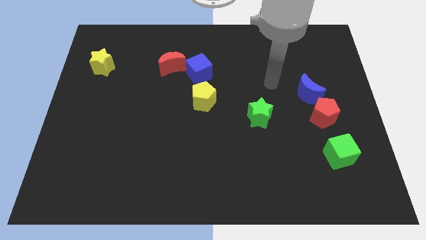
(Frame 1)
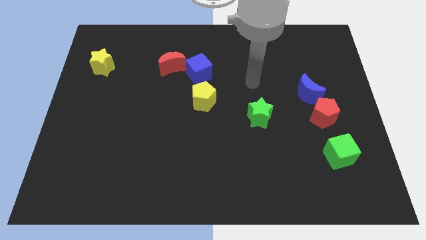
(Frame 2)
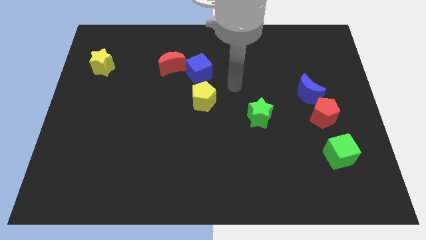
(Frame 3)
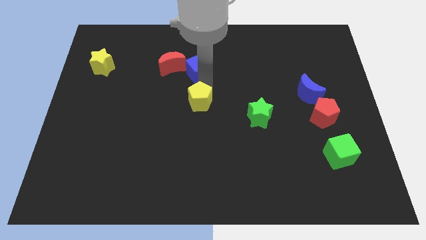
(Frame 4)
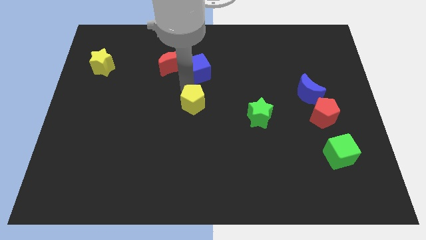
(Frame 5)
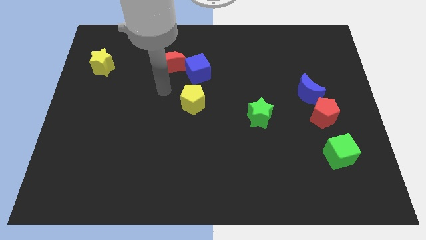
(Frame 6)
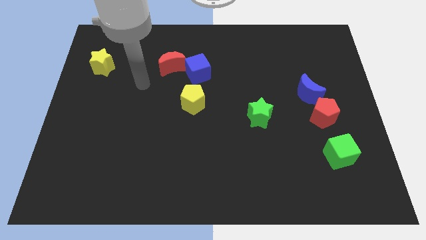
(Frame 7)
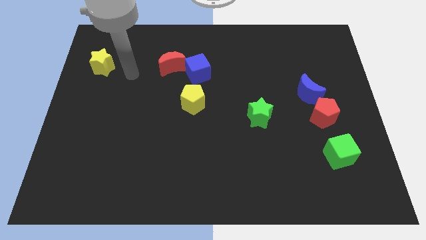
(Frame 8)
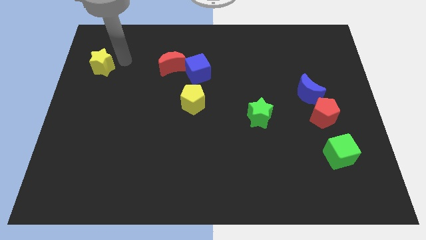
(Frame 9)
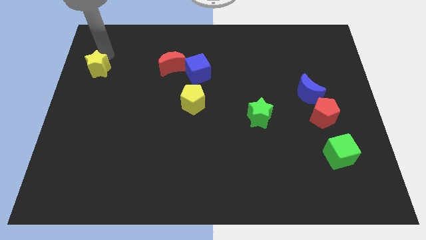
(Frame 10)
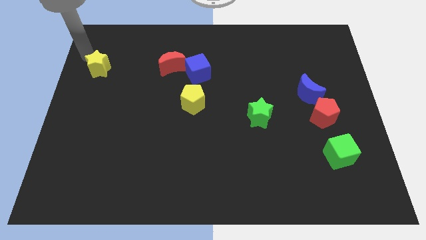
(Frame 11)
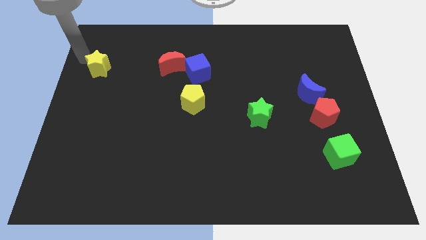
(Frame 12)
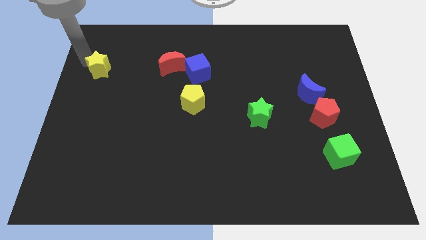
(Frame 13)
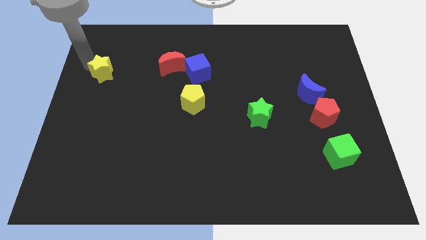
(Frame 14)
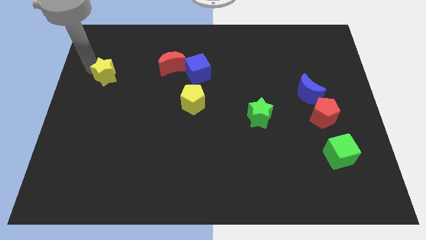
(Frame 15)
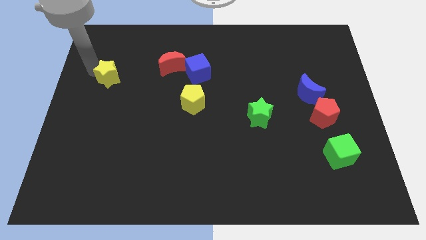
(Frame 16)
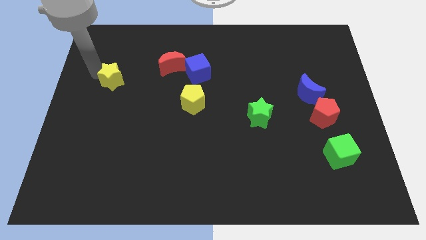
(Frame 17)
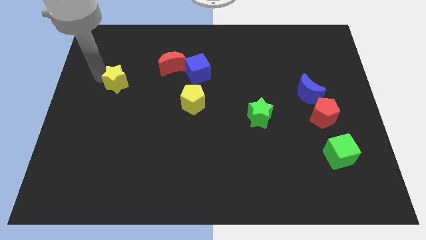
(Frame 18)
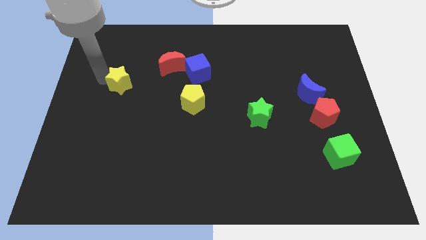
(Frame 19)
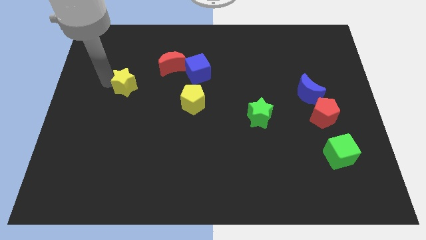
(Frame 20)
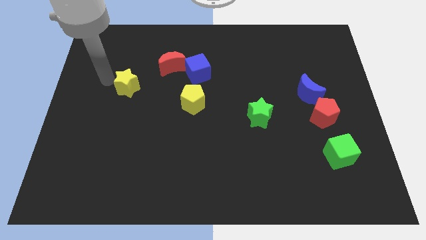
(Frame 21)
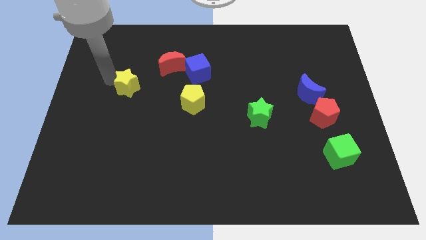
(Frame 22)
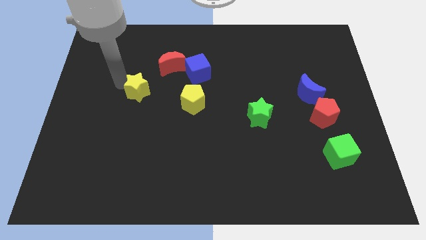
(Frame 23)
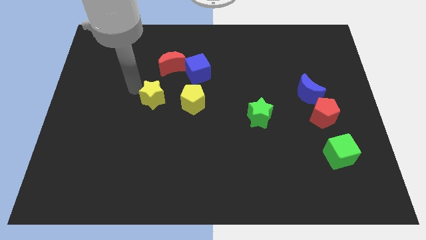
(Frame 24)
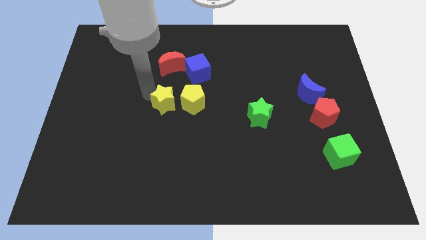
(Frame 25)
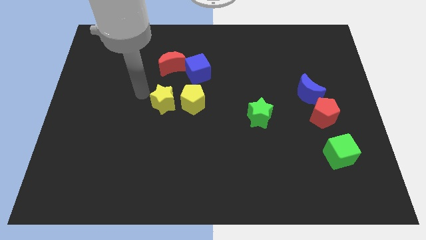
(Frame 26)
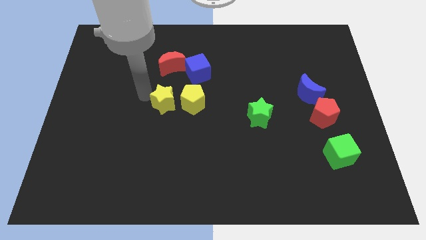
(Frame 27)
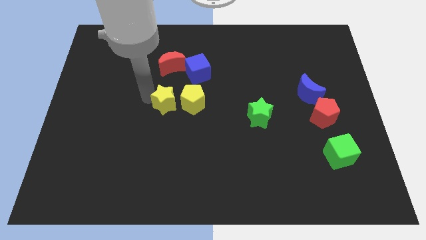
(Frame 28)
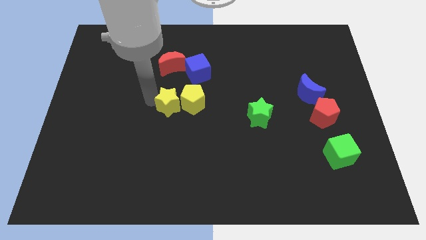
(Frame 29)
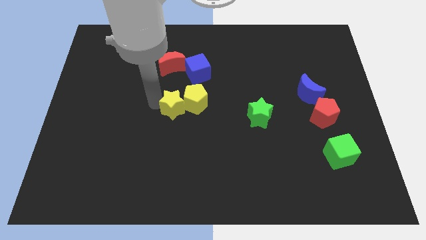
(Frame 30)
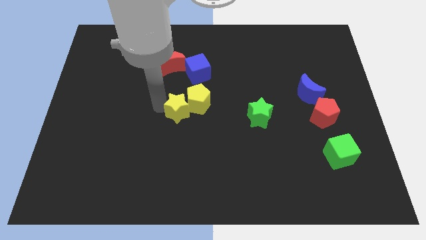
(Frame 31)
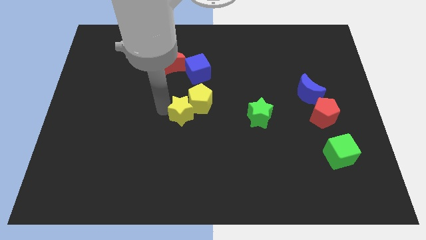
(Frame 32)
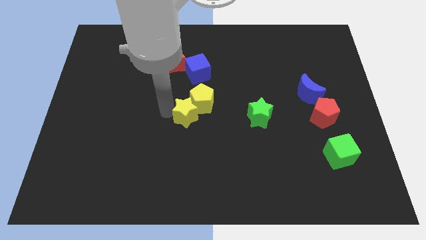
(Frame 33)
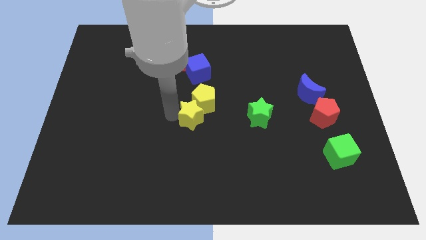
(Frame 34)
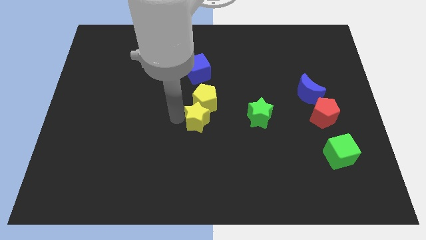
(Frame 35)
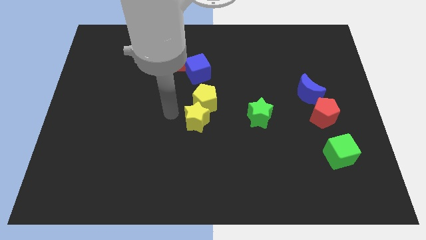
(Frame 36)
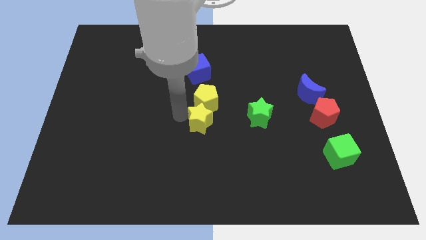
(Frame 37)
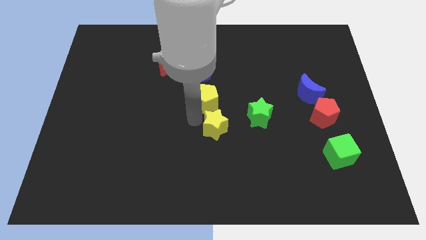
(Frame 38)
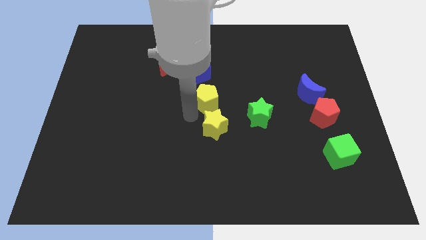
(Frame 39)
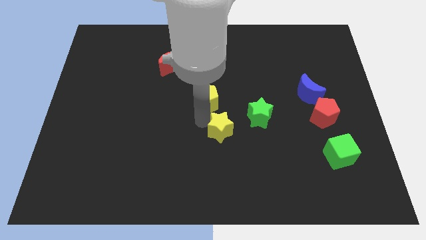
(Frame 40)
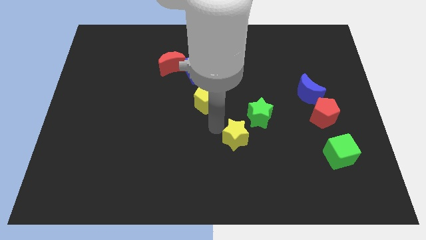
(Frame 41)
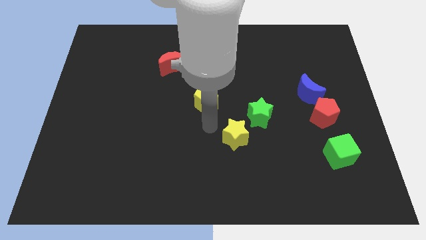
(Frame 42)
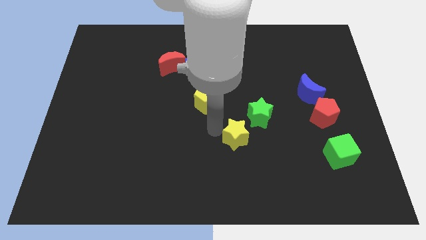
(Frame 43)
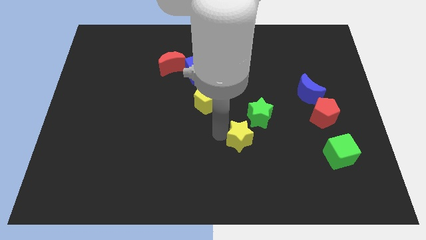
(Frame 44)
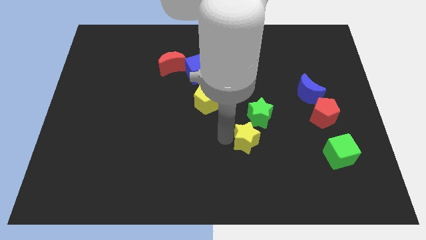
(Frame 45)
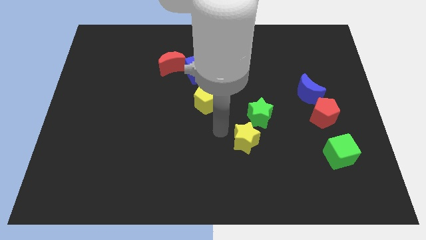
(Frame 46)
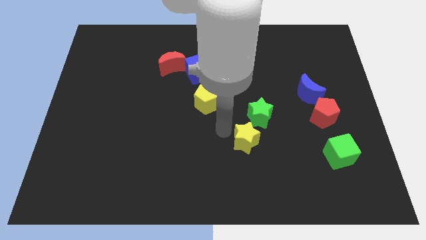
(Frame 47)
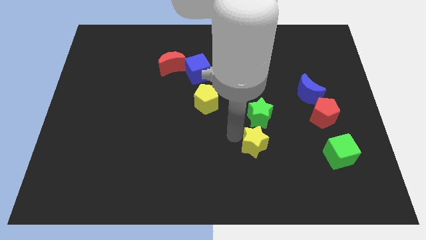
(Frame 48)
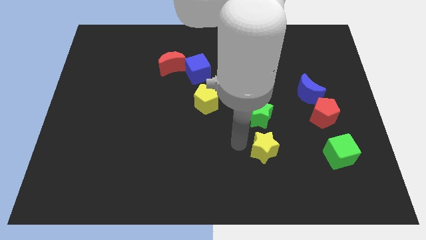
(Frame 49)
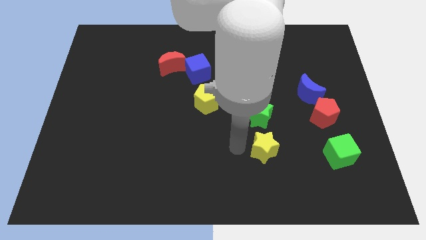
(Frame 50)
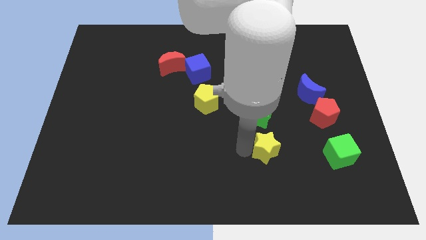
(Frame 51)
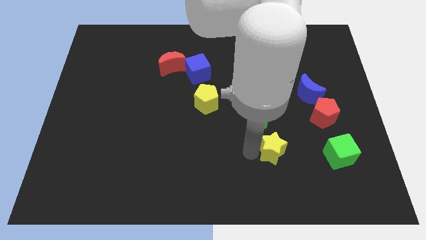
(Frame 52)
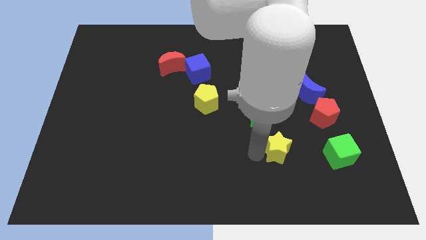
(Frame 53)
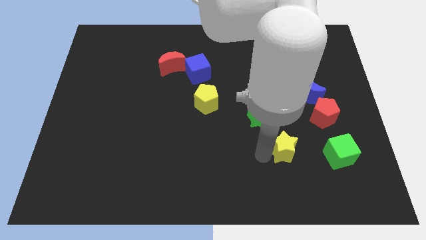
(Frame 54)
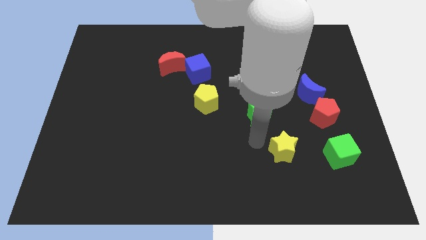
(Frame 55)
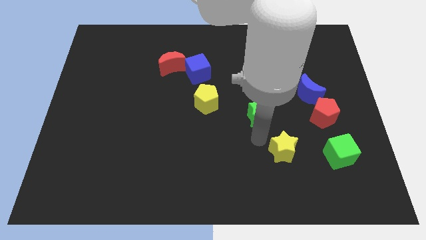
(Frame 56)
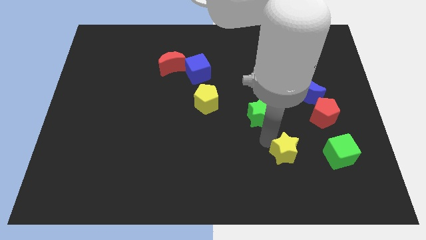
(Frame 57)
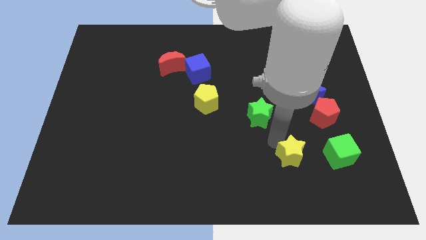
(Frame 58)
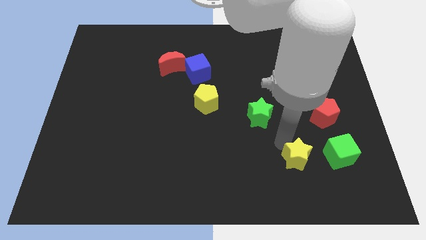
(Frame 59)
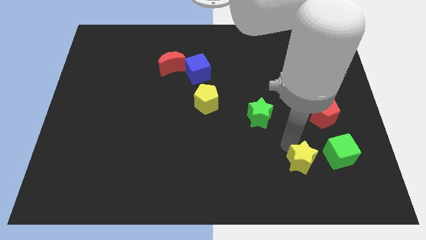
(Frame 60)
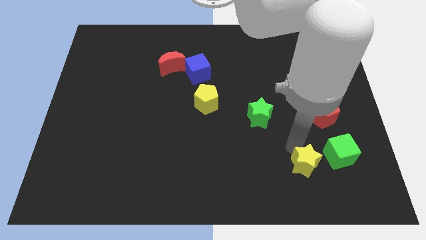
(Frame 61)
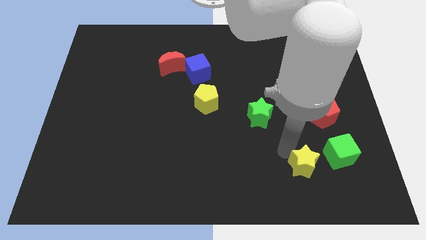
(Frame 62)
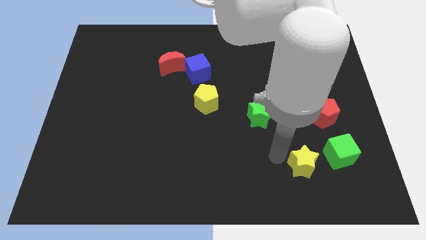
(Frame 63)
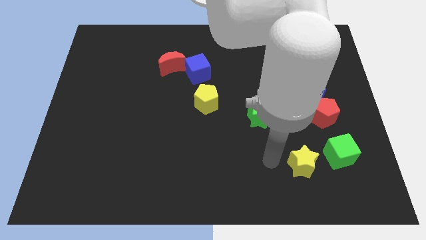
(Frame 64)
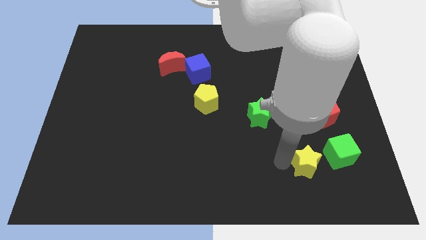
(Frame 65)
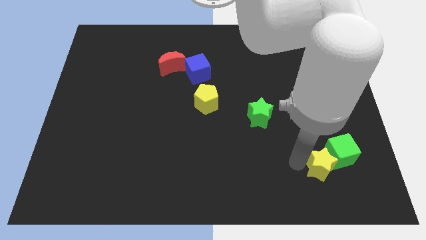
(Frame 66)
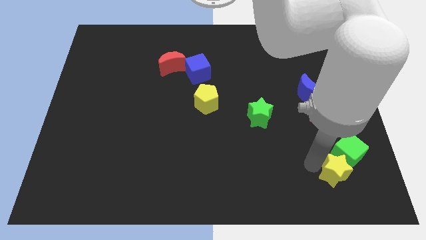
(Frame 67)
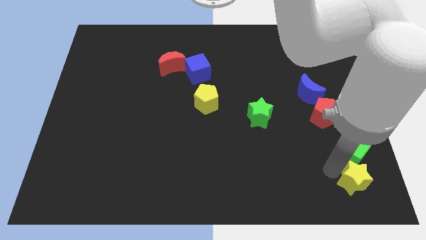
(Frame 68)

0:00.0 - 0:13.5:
move the yellow star to the bottom right of the board
